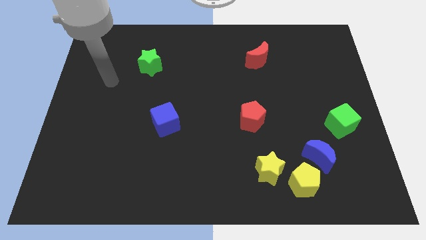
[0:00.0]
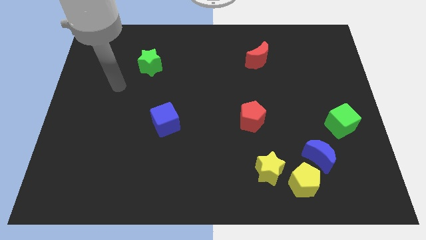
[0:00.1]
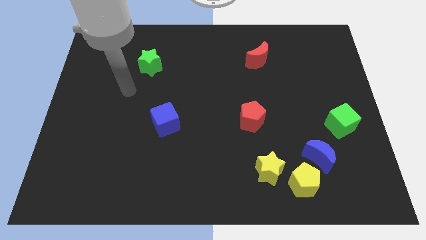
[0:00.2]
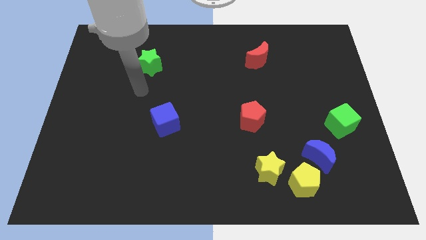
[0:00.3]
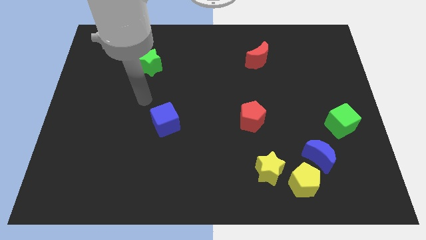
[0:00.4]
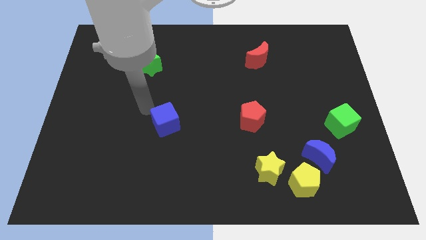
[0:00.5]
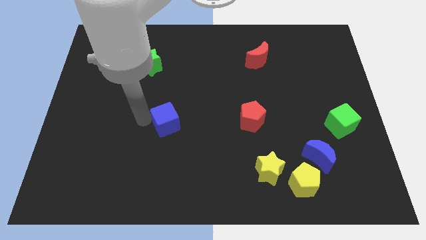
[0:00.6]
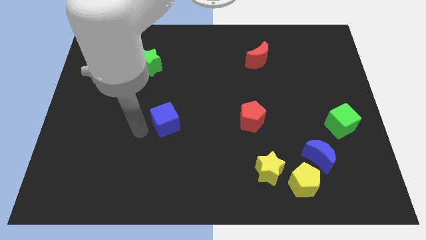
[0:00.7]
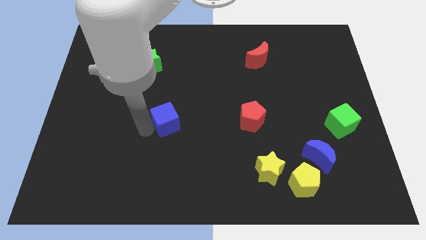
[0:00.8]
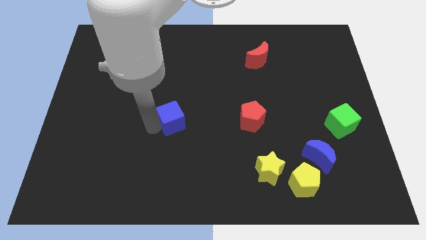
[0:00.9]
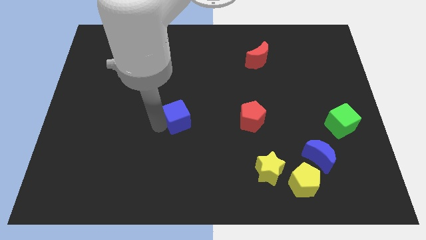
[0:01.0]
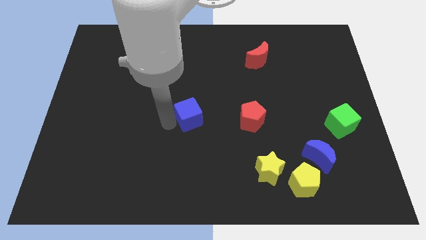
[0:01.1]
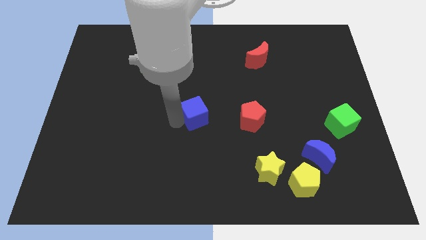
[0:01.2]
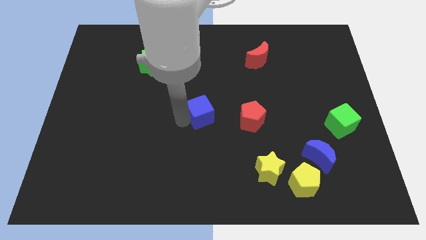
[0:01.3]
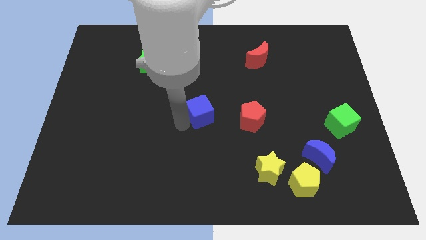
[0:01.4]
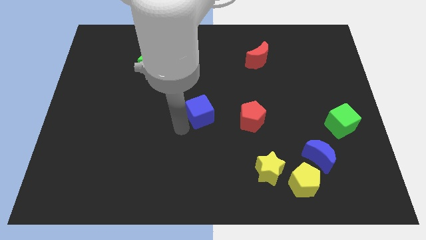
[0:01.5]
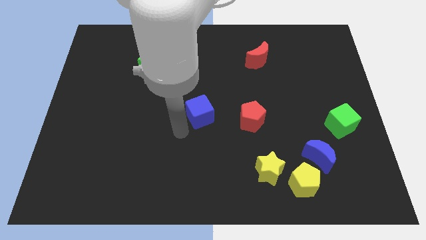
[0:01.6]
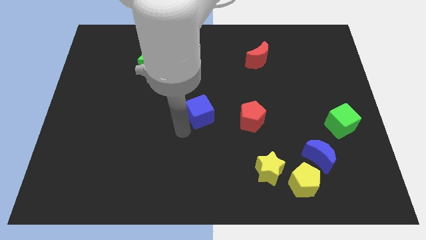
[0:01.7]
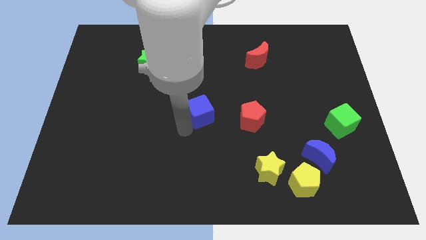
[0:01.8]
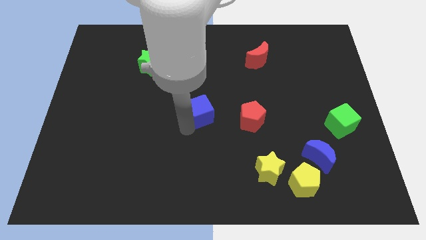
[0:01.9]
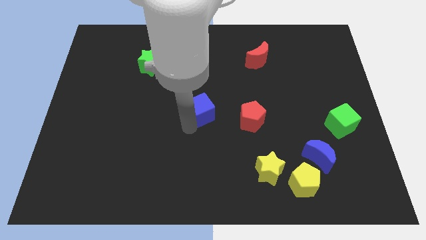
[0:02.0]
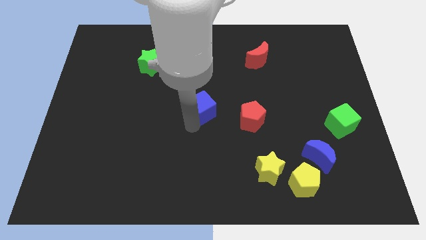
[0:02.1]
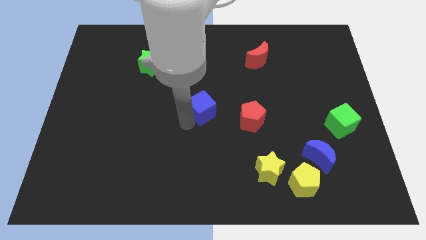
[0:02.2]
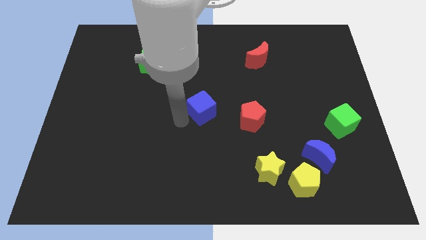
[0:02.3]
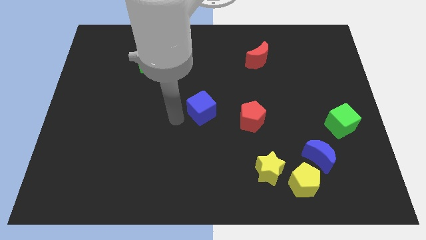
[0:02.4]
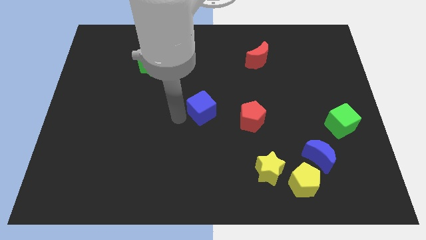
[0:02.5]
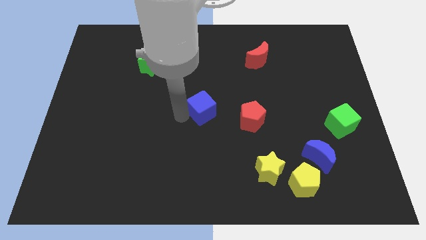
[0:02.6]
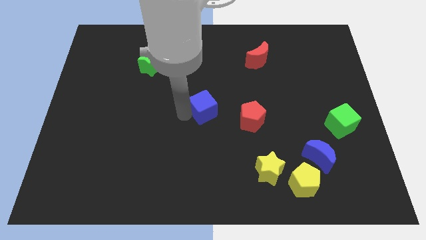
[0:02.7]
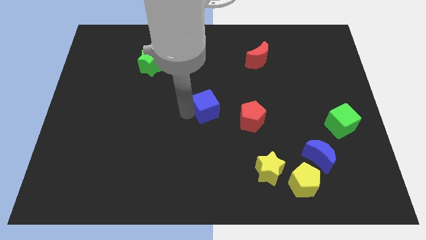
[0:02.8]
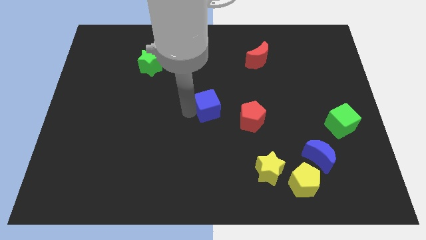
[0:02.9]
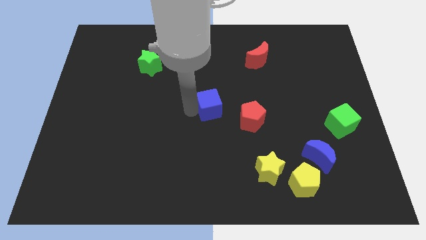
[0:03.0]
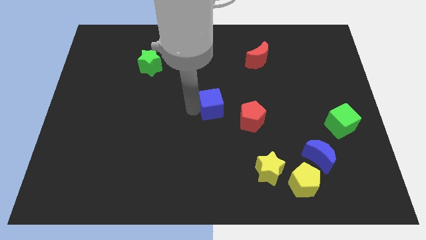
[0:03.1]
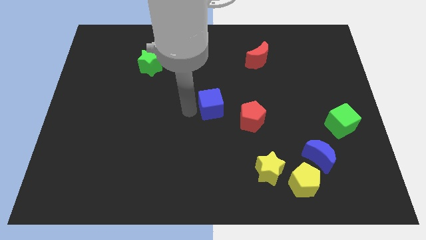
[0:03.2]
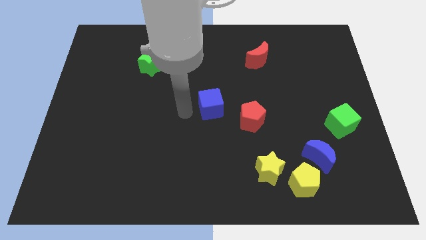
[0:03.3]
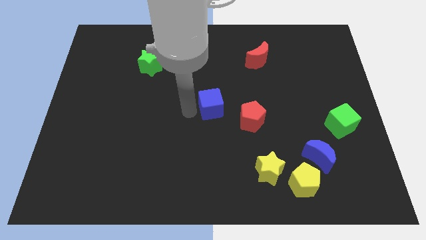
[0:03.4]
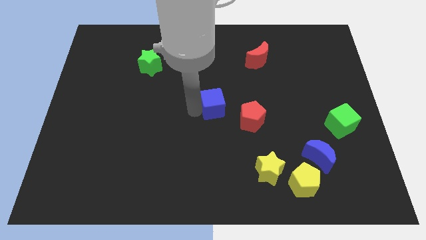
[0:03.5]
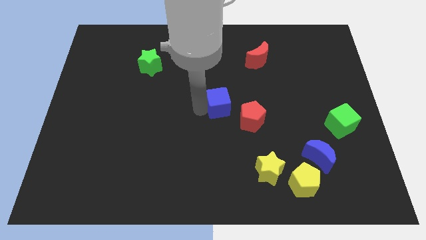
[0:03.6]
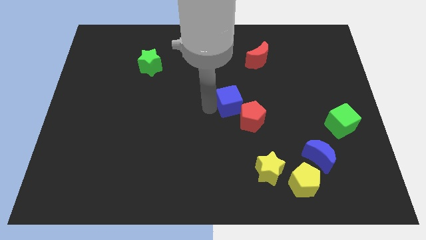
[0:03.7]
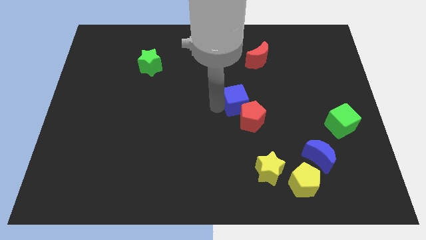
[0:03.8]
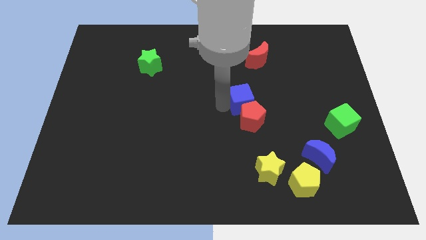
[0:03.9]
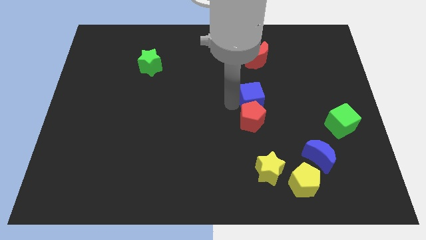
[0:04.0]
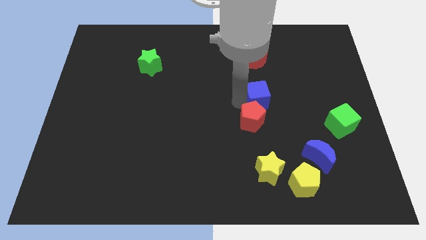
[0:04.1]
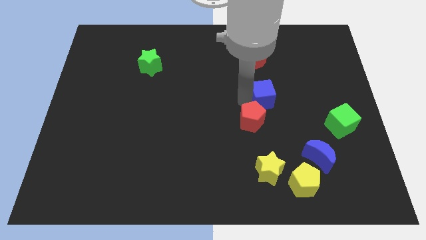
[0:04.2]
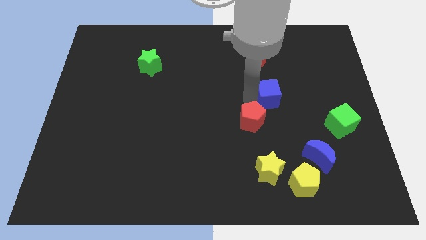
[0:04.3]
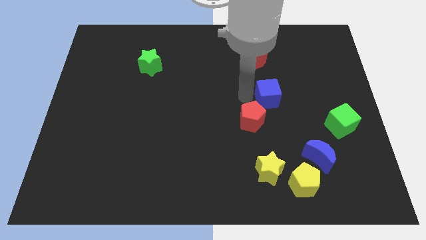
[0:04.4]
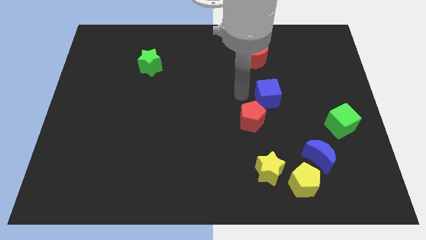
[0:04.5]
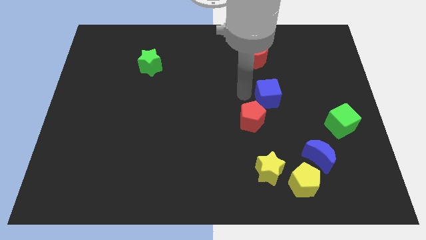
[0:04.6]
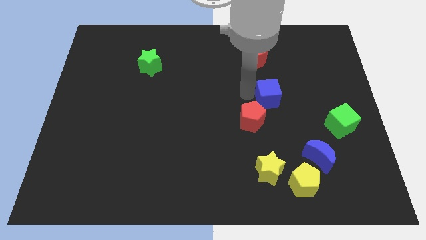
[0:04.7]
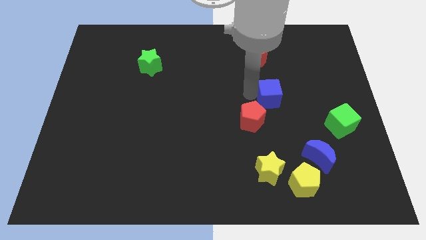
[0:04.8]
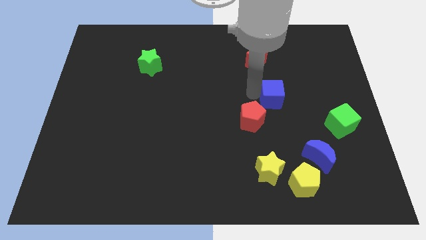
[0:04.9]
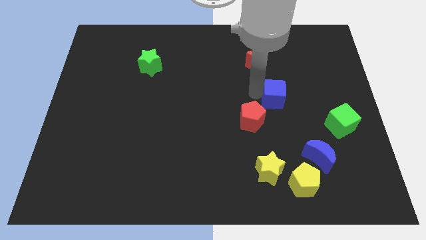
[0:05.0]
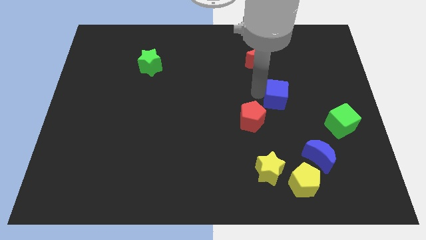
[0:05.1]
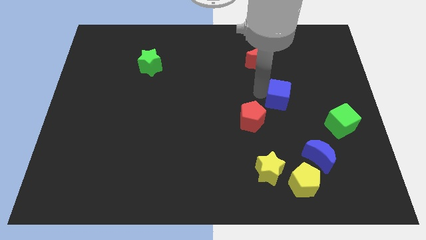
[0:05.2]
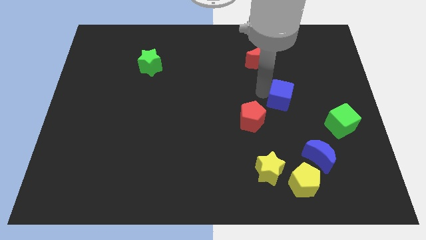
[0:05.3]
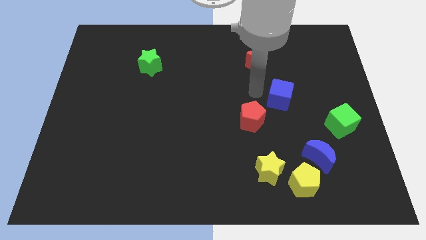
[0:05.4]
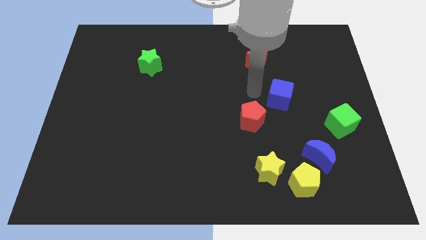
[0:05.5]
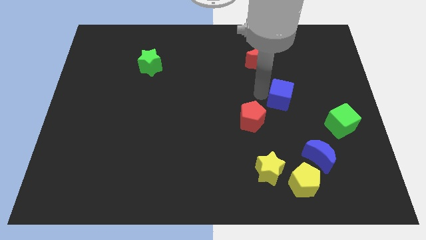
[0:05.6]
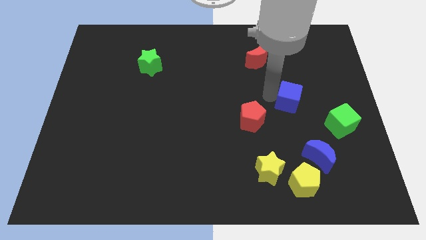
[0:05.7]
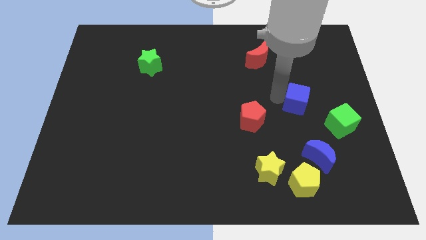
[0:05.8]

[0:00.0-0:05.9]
slide the blue cube to the top left side of the green cube

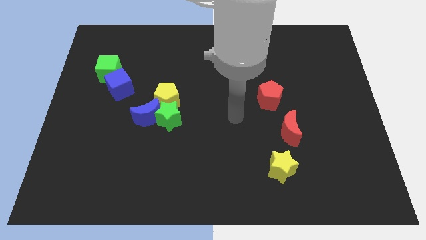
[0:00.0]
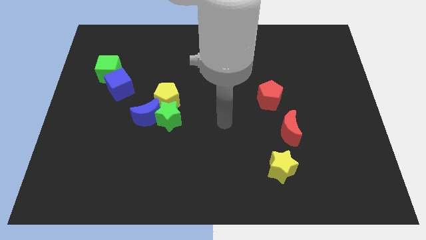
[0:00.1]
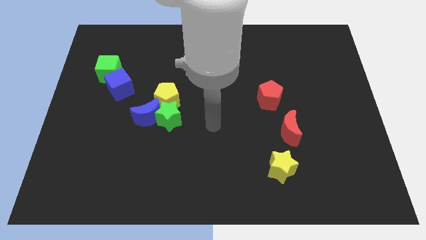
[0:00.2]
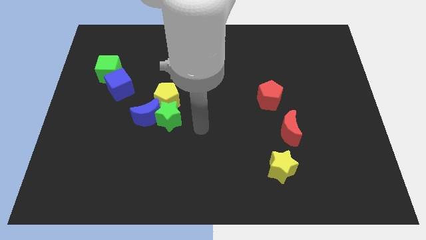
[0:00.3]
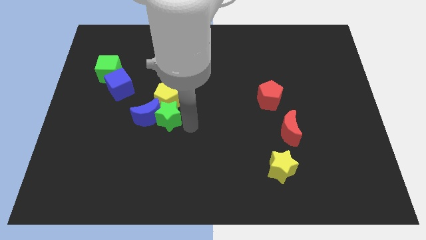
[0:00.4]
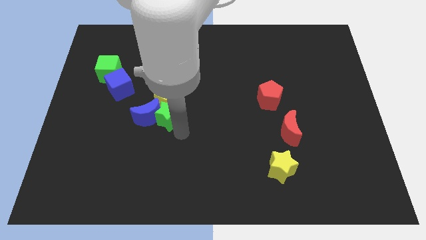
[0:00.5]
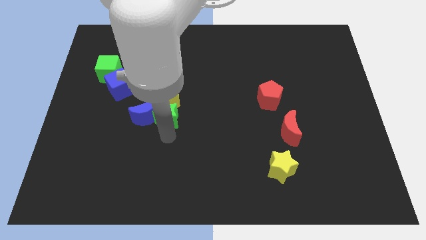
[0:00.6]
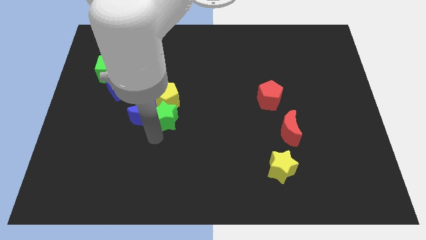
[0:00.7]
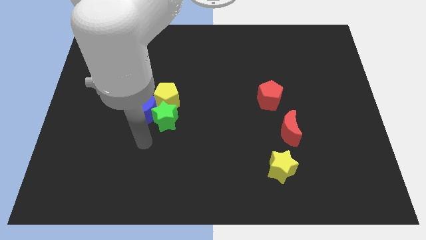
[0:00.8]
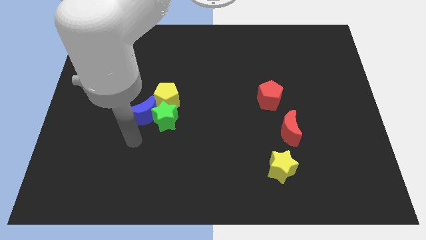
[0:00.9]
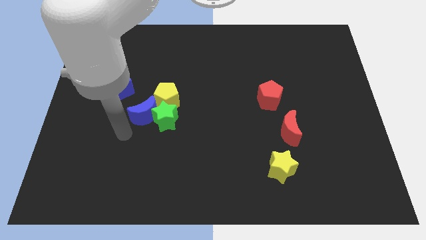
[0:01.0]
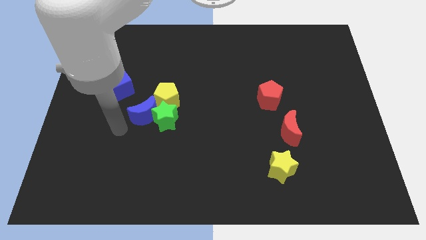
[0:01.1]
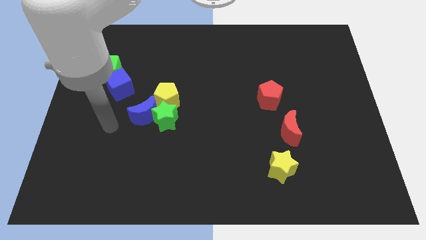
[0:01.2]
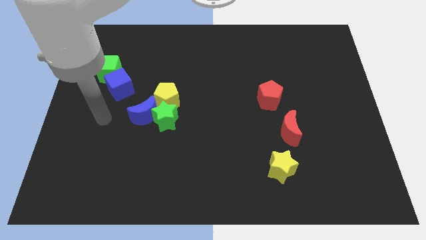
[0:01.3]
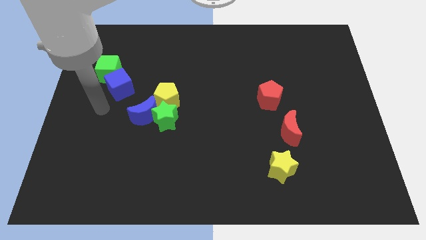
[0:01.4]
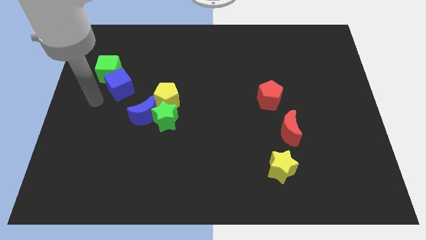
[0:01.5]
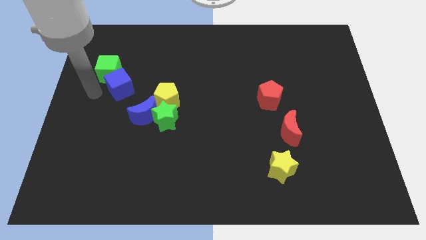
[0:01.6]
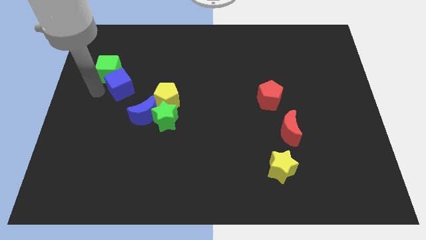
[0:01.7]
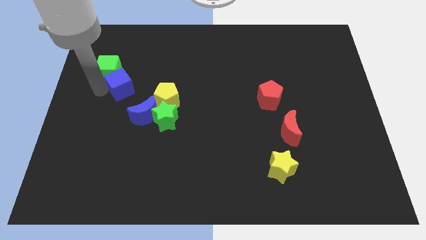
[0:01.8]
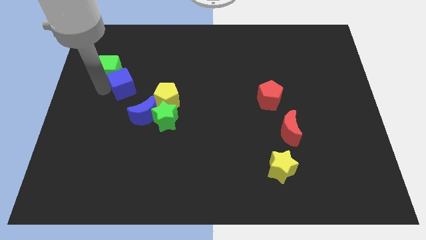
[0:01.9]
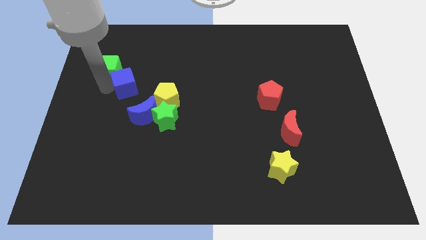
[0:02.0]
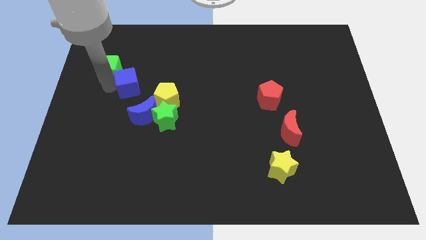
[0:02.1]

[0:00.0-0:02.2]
push the blue cube to the top left of the yellow pentagon
